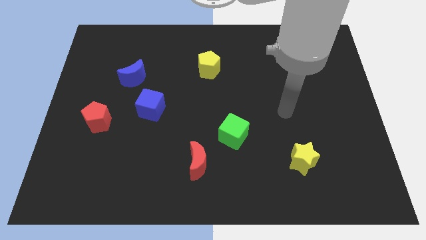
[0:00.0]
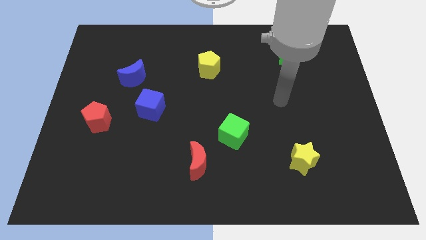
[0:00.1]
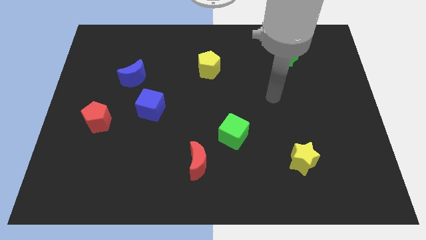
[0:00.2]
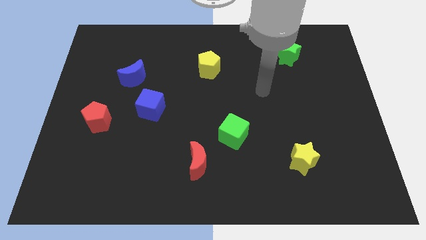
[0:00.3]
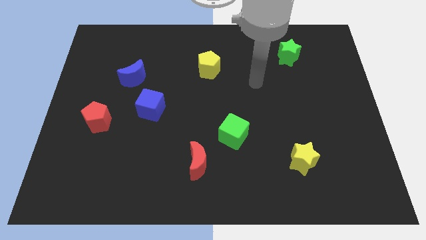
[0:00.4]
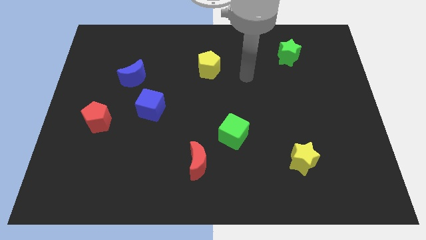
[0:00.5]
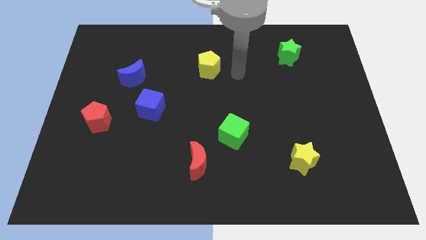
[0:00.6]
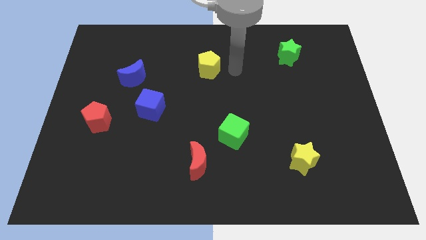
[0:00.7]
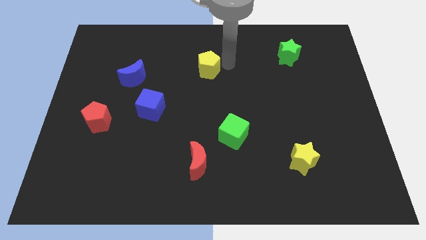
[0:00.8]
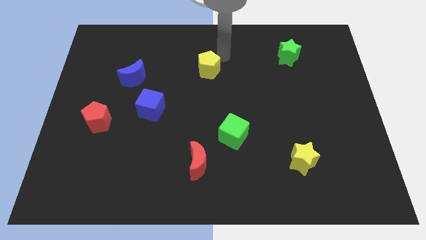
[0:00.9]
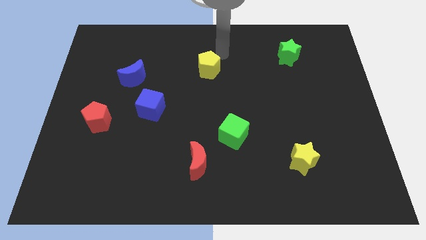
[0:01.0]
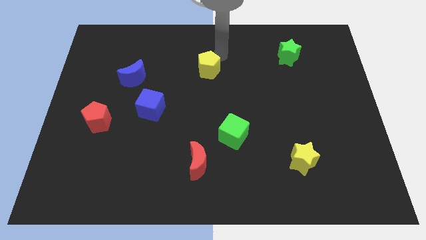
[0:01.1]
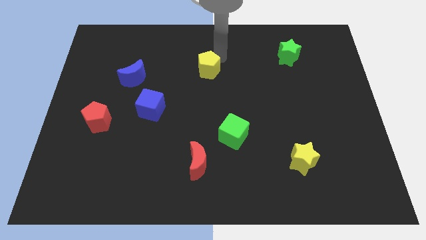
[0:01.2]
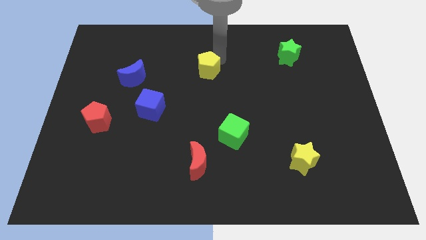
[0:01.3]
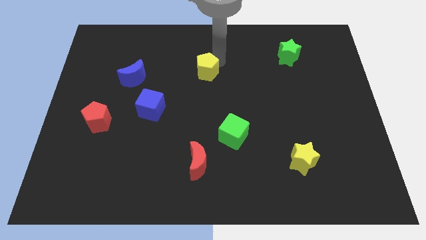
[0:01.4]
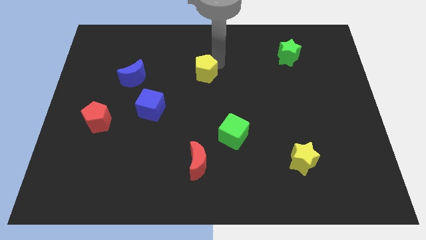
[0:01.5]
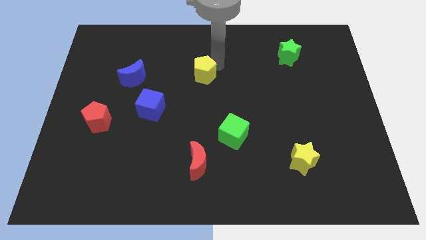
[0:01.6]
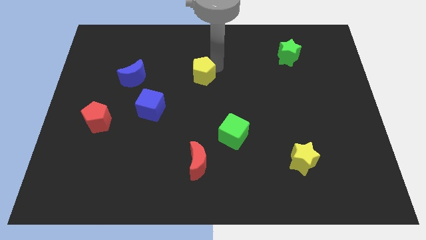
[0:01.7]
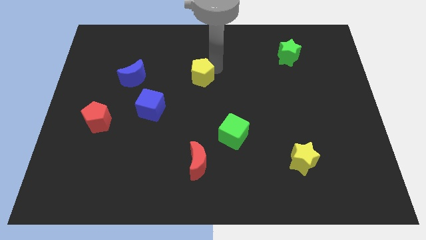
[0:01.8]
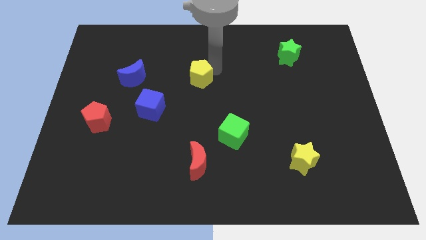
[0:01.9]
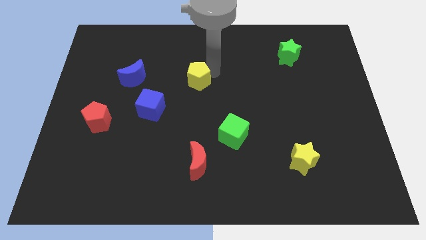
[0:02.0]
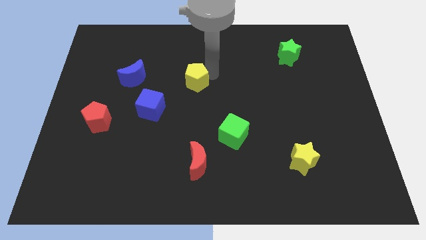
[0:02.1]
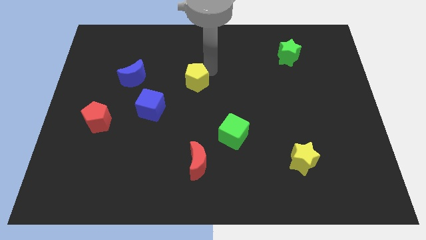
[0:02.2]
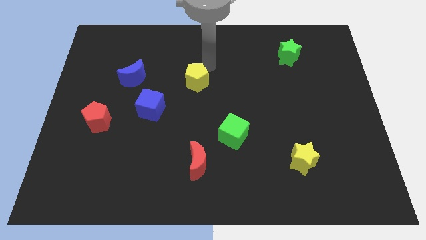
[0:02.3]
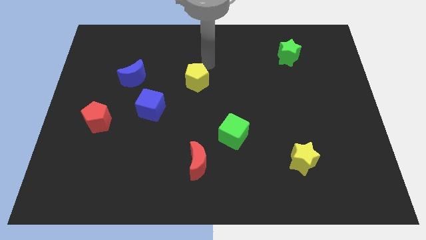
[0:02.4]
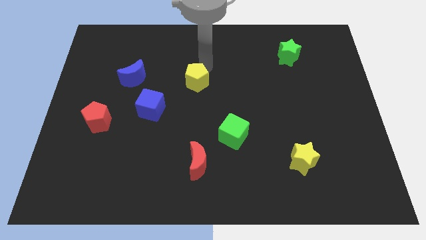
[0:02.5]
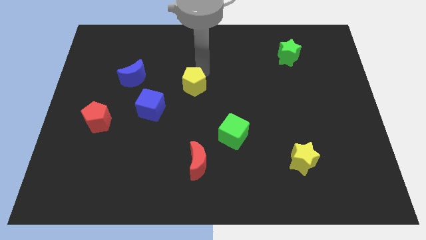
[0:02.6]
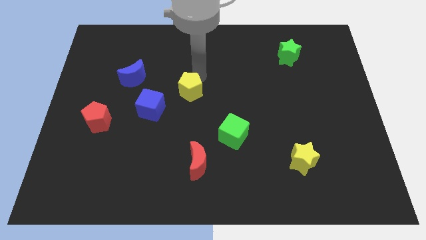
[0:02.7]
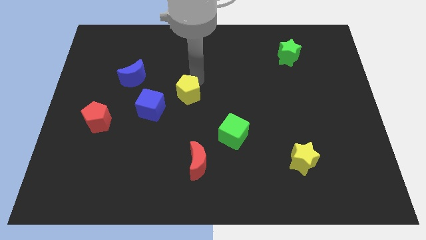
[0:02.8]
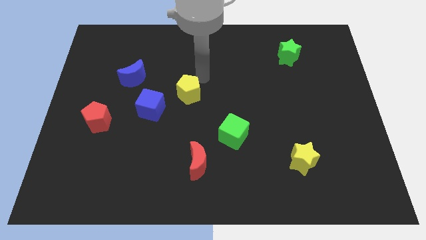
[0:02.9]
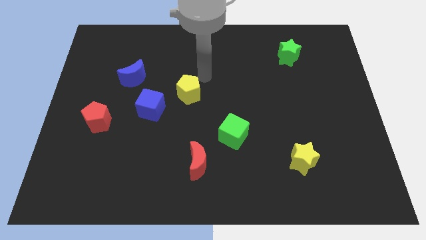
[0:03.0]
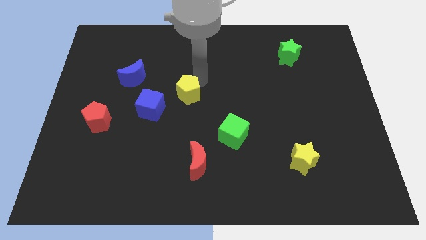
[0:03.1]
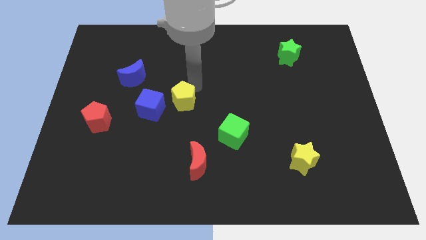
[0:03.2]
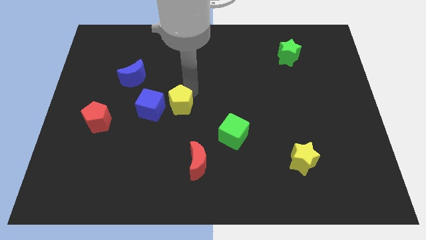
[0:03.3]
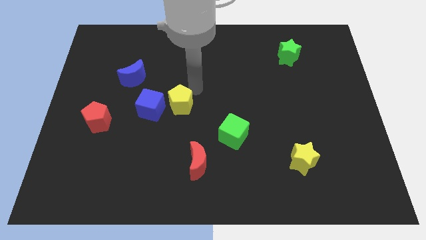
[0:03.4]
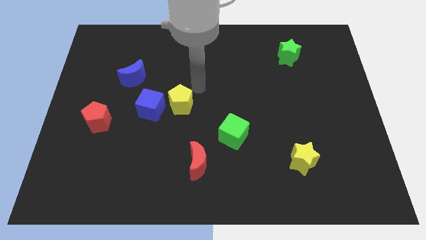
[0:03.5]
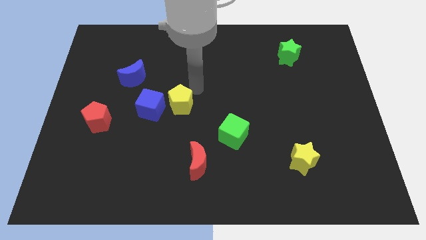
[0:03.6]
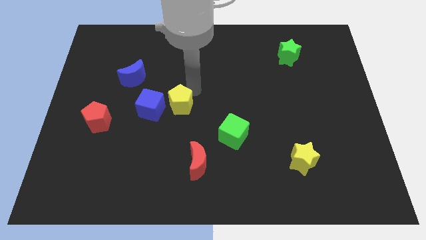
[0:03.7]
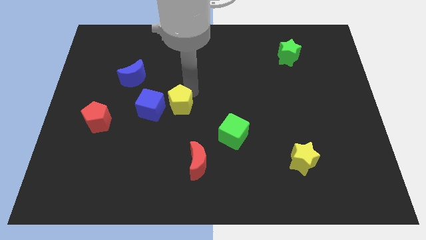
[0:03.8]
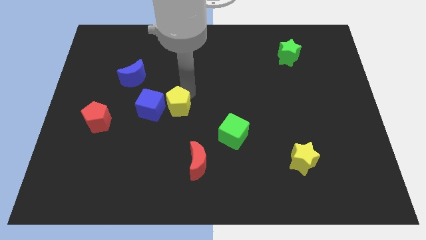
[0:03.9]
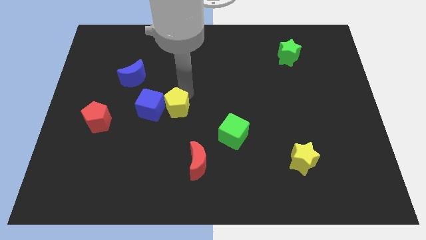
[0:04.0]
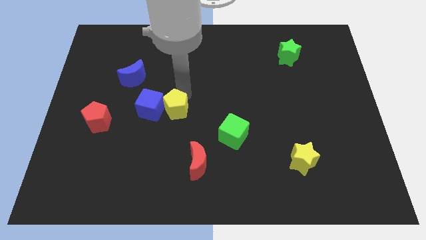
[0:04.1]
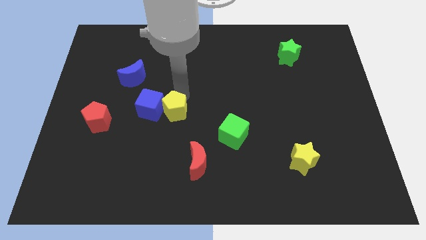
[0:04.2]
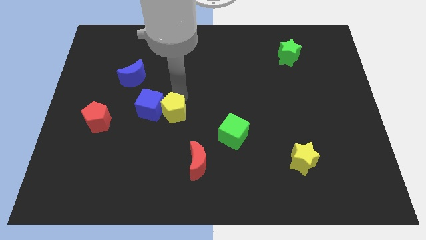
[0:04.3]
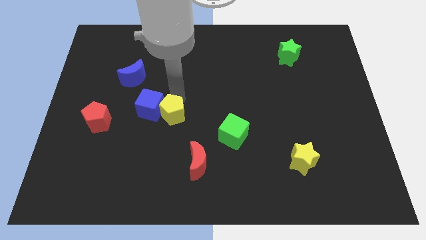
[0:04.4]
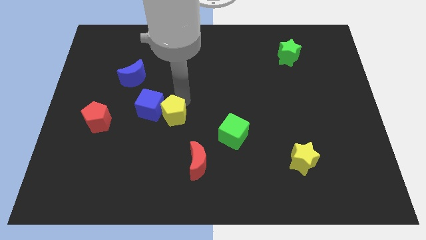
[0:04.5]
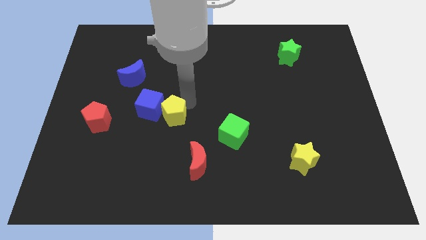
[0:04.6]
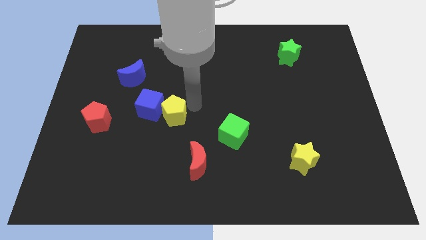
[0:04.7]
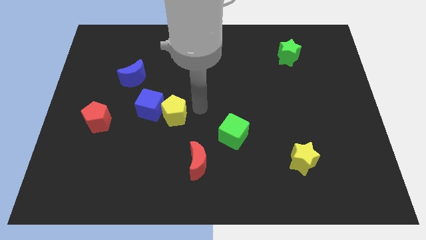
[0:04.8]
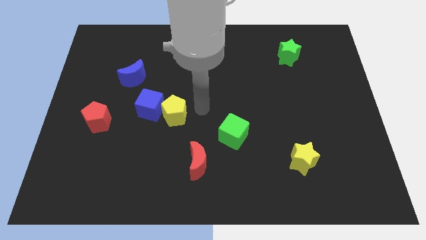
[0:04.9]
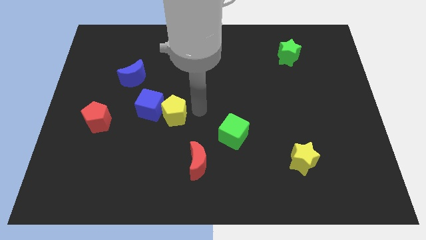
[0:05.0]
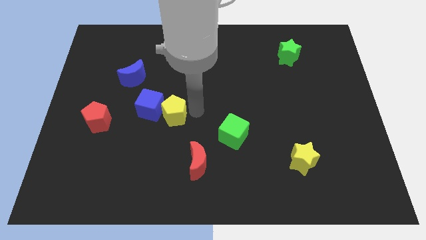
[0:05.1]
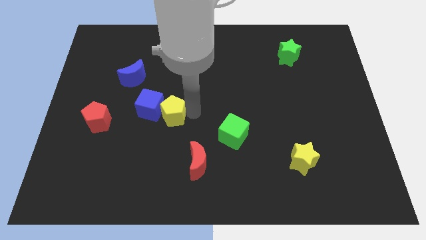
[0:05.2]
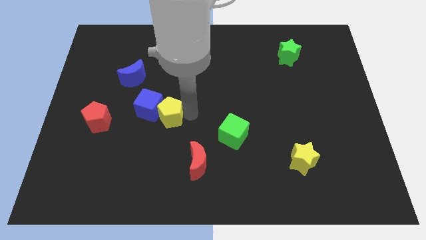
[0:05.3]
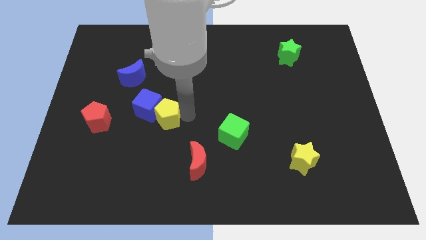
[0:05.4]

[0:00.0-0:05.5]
put the yellow pentagon right of the red pentagon

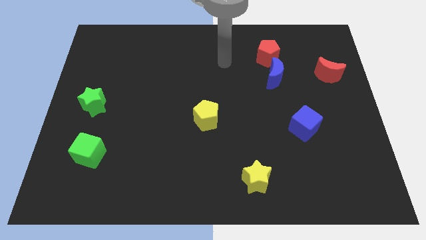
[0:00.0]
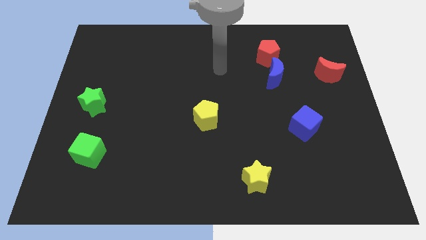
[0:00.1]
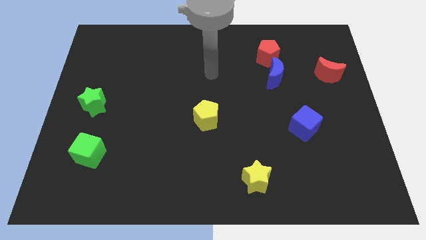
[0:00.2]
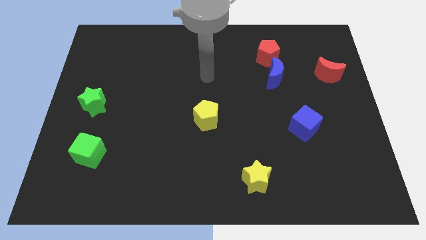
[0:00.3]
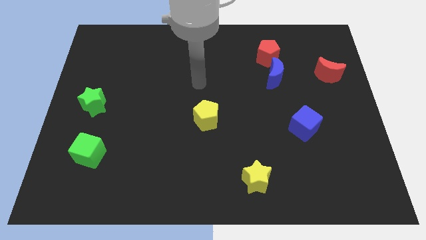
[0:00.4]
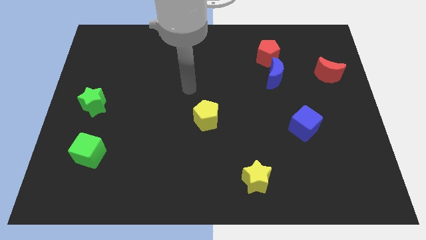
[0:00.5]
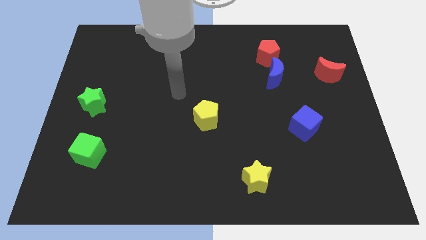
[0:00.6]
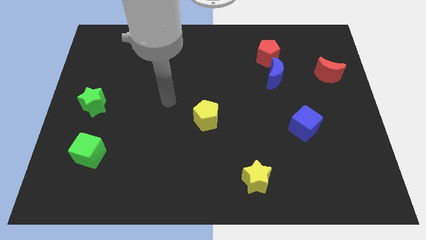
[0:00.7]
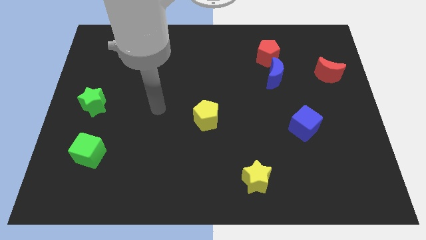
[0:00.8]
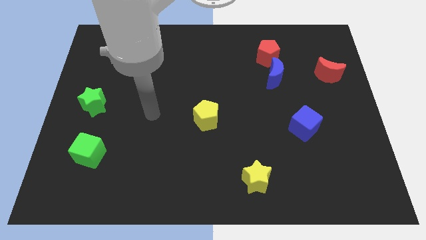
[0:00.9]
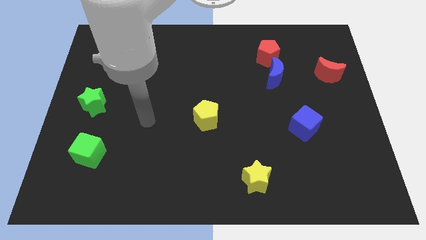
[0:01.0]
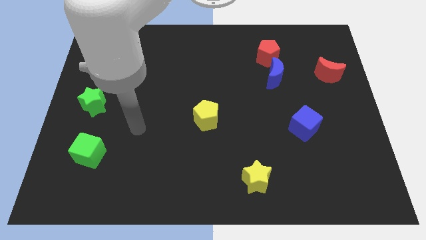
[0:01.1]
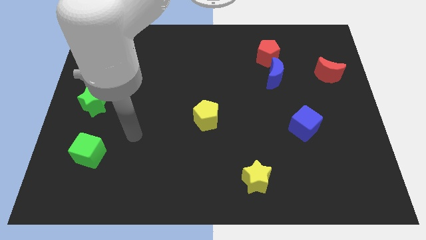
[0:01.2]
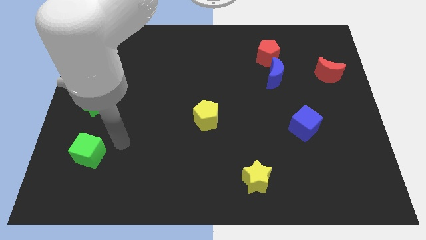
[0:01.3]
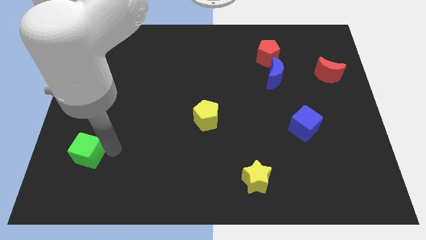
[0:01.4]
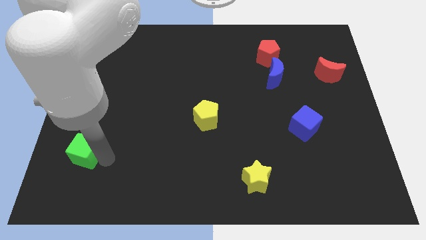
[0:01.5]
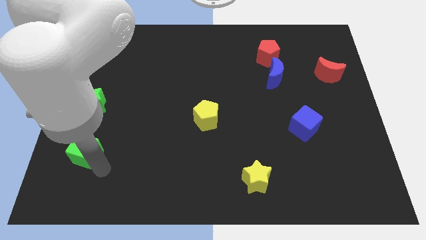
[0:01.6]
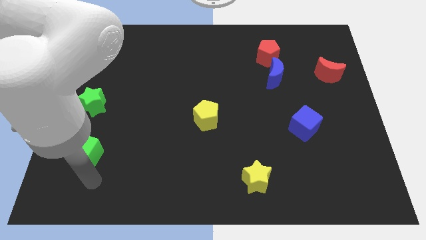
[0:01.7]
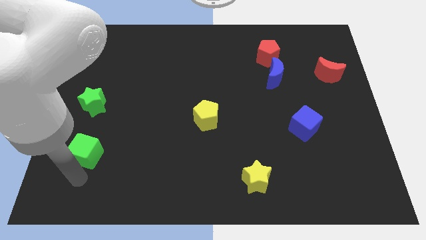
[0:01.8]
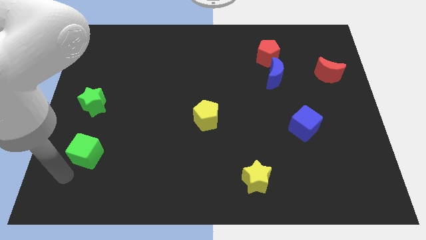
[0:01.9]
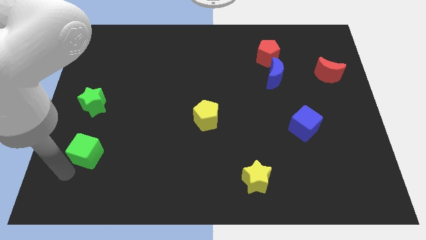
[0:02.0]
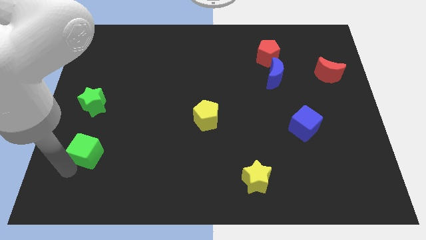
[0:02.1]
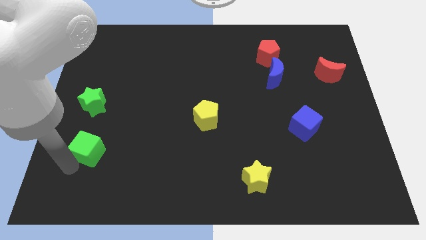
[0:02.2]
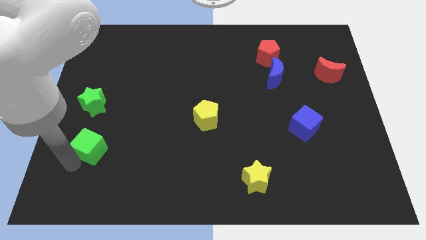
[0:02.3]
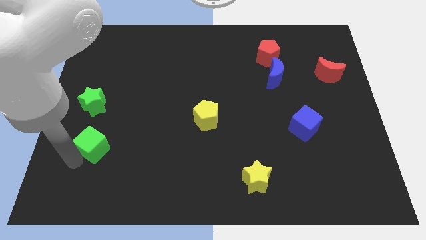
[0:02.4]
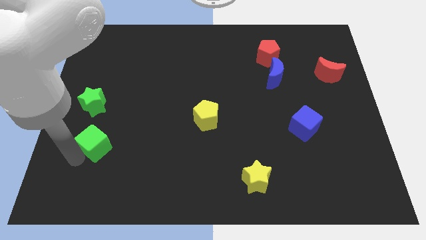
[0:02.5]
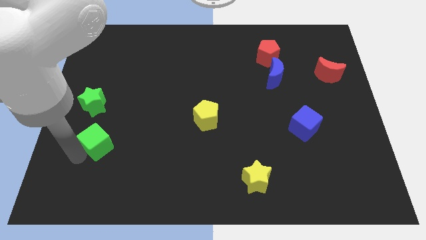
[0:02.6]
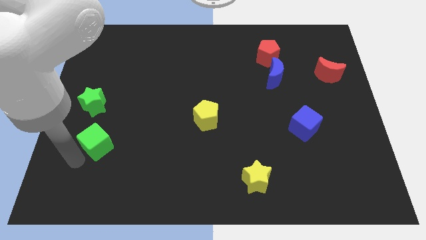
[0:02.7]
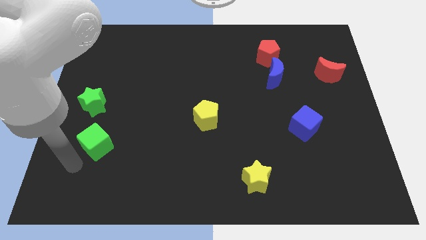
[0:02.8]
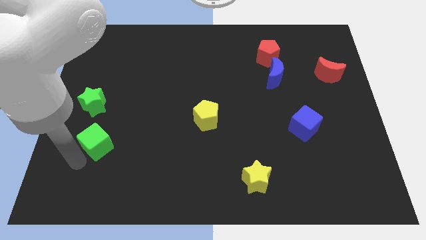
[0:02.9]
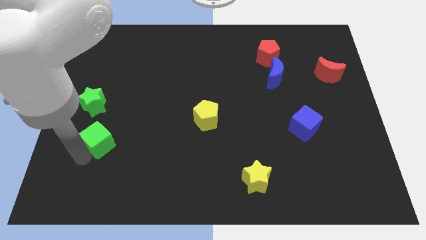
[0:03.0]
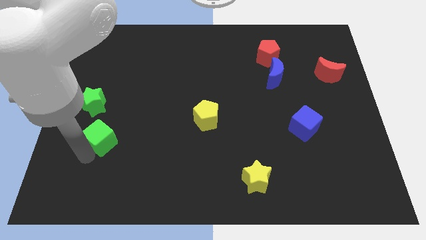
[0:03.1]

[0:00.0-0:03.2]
push the green cube to the bottom right side of the green star
